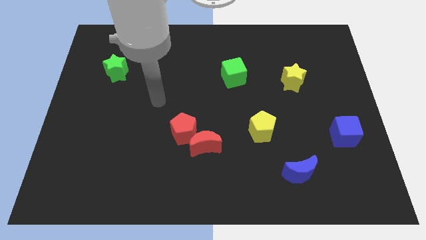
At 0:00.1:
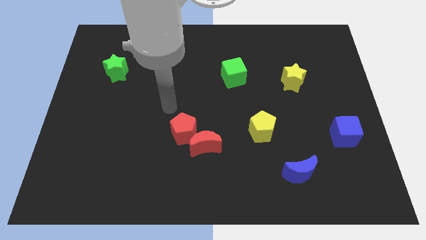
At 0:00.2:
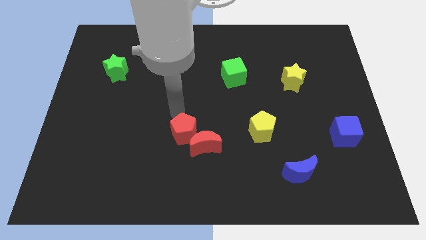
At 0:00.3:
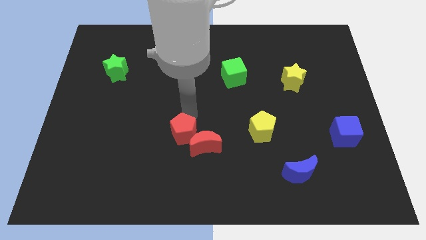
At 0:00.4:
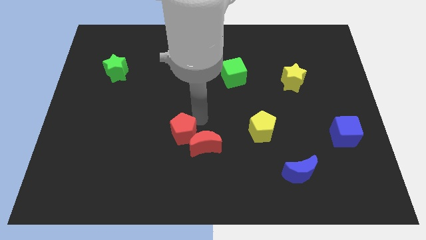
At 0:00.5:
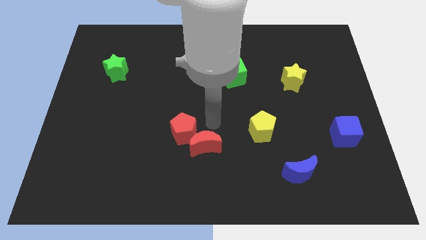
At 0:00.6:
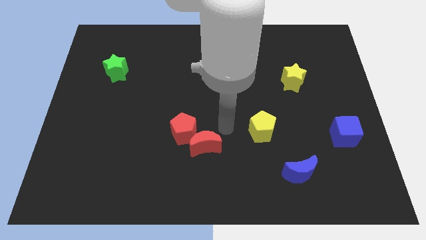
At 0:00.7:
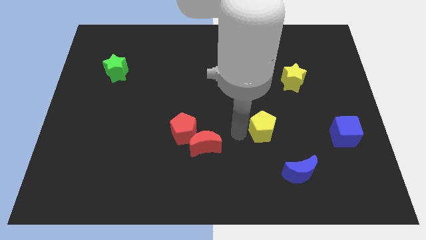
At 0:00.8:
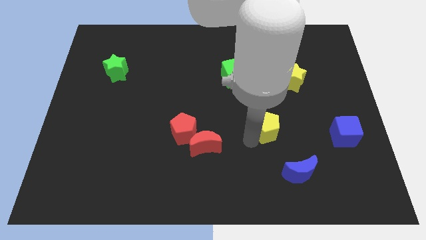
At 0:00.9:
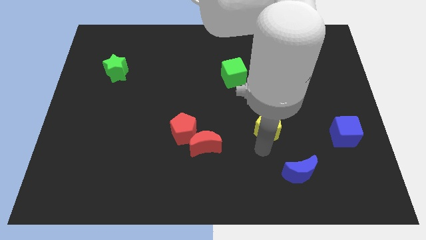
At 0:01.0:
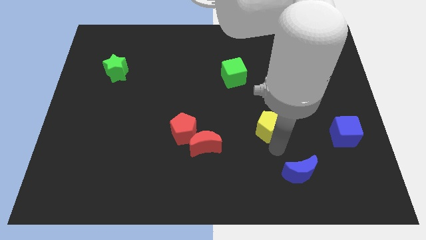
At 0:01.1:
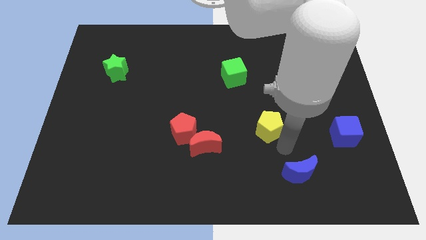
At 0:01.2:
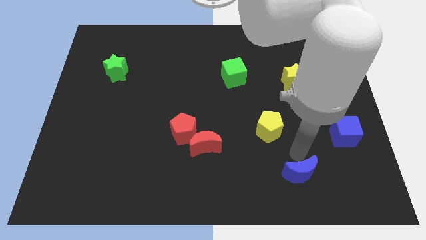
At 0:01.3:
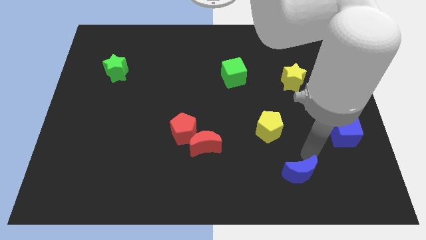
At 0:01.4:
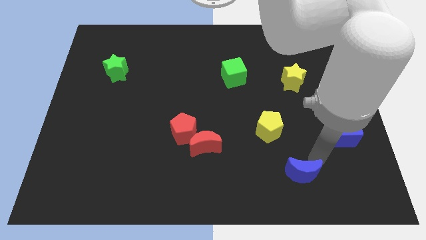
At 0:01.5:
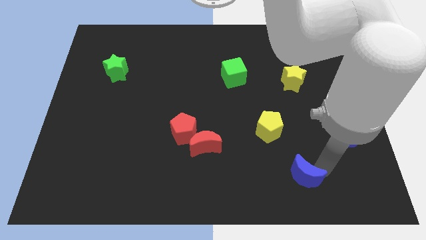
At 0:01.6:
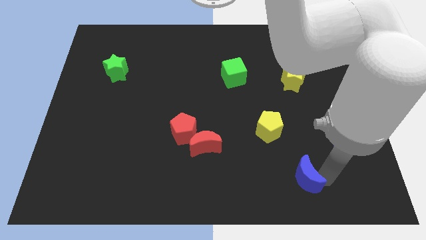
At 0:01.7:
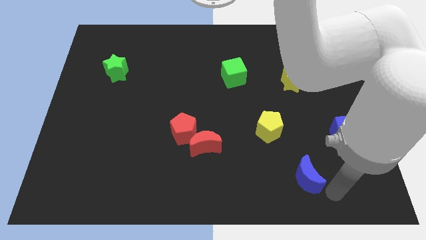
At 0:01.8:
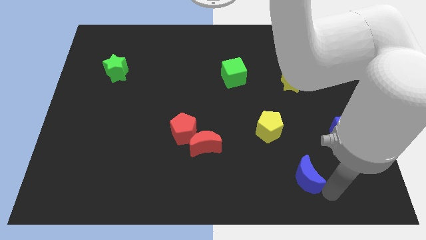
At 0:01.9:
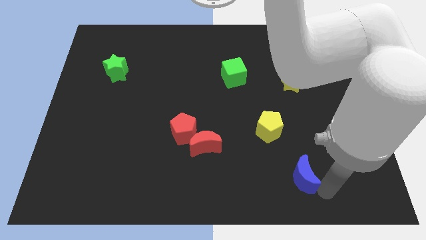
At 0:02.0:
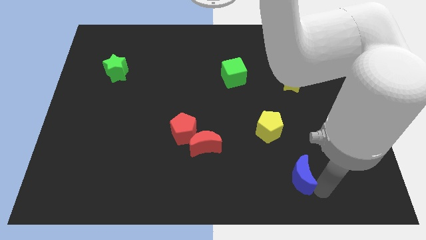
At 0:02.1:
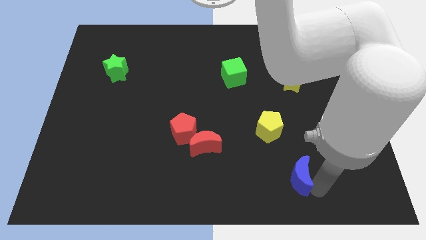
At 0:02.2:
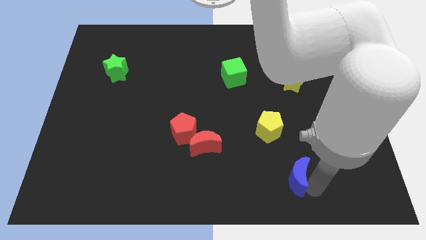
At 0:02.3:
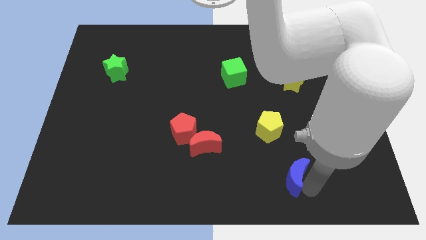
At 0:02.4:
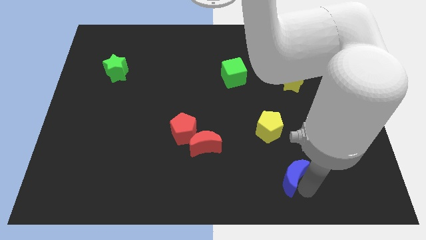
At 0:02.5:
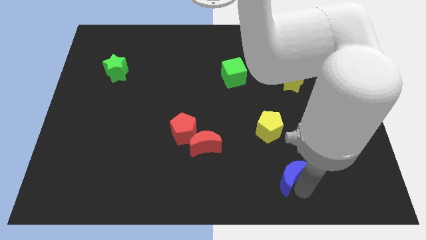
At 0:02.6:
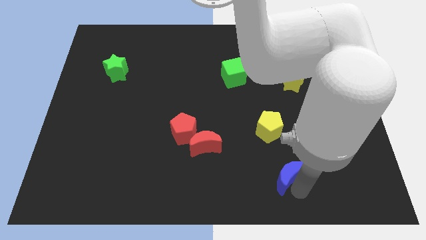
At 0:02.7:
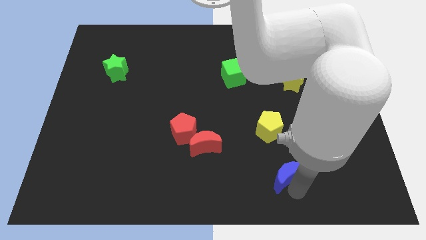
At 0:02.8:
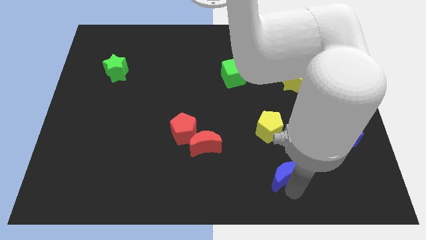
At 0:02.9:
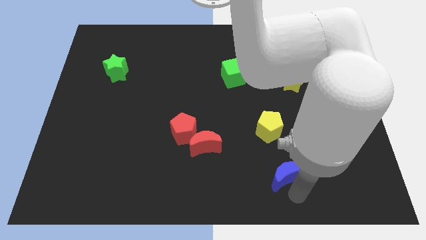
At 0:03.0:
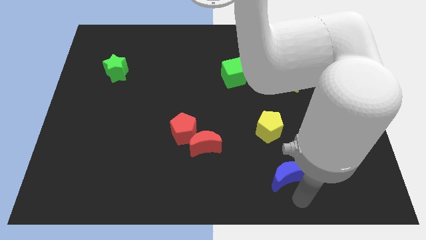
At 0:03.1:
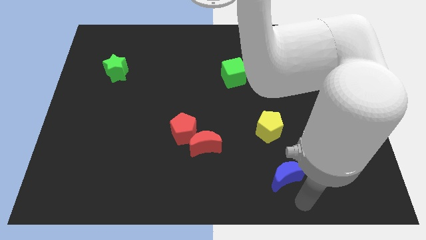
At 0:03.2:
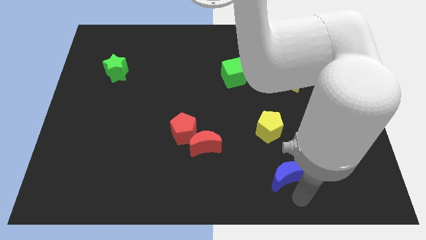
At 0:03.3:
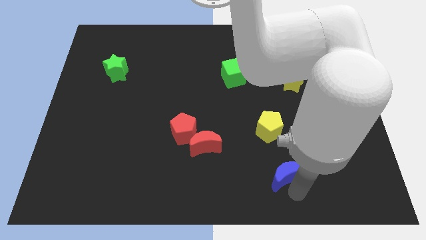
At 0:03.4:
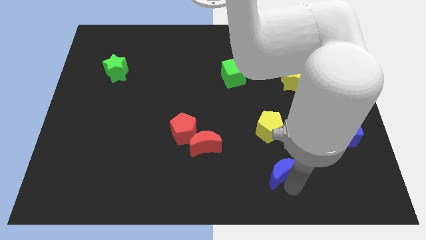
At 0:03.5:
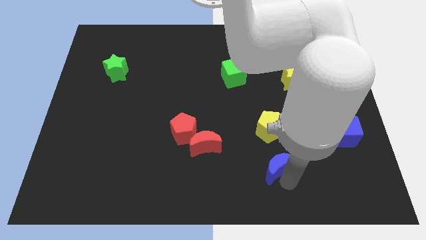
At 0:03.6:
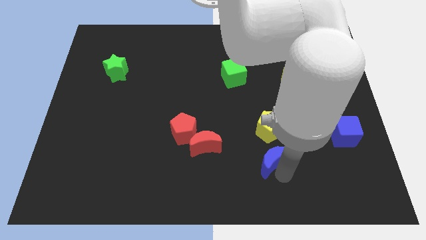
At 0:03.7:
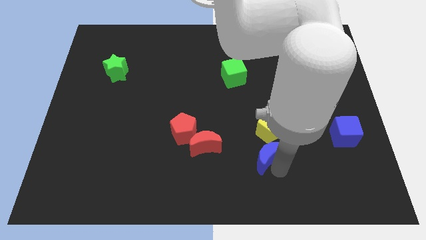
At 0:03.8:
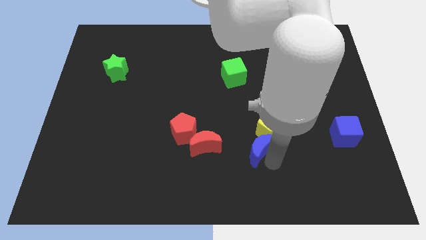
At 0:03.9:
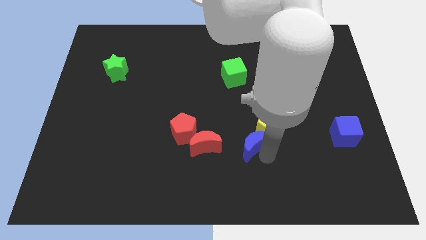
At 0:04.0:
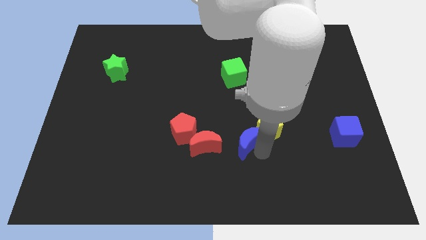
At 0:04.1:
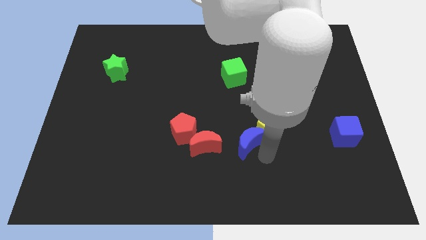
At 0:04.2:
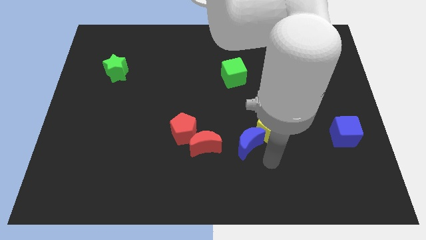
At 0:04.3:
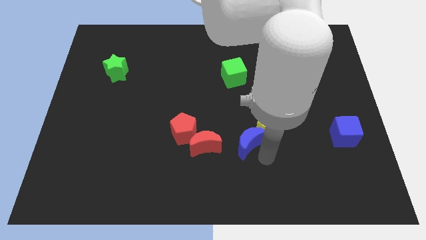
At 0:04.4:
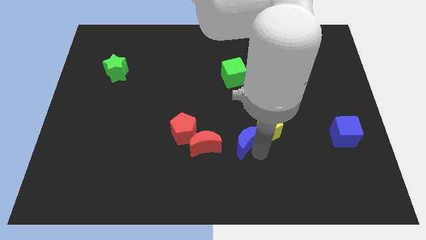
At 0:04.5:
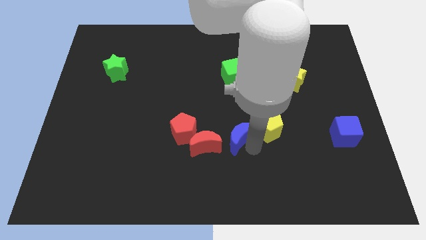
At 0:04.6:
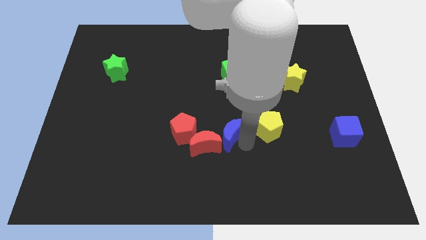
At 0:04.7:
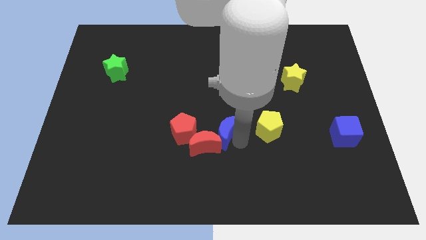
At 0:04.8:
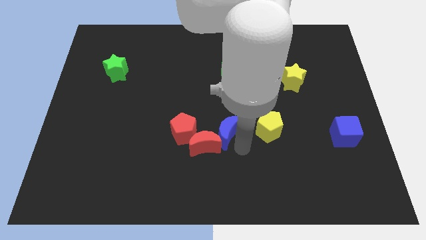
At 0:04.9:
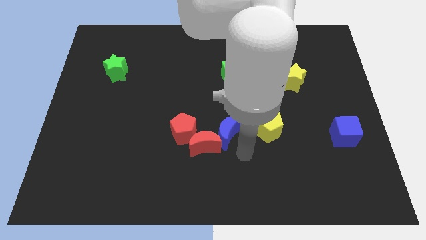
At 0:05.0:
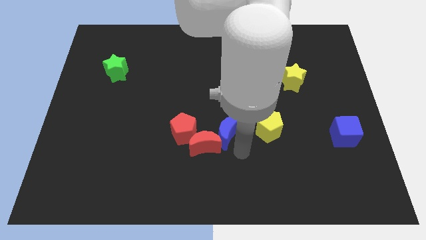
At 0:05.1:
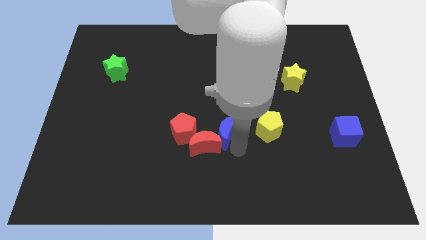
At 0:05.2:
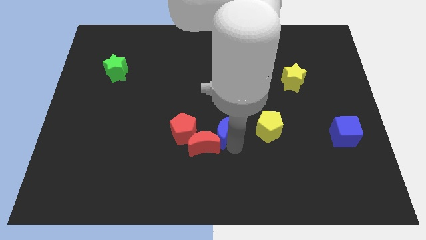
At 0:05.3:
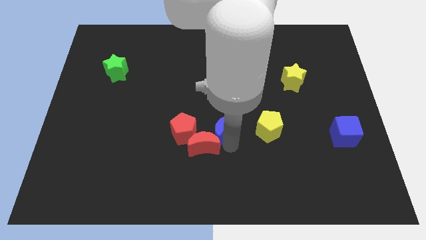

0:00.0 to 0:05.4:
move the blue moon to the top side of the red moon

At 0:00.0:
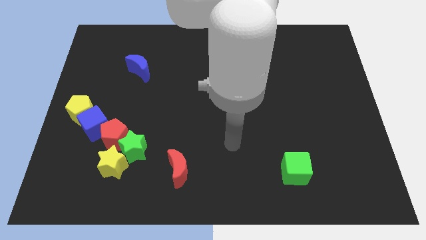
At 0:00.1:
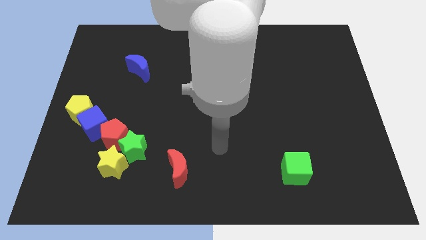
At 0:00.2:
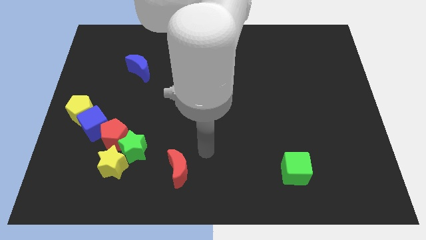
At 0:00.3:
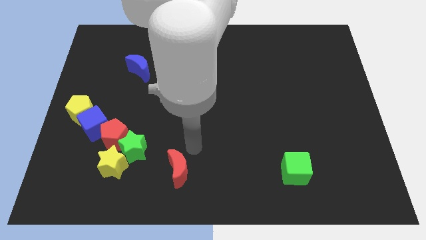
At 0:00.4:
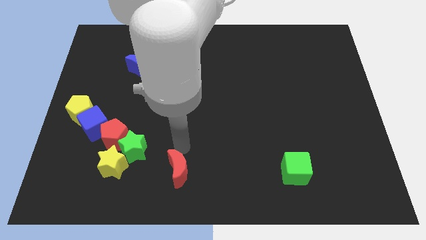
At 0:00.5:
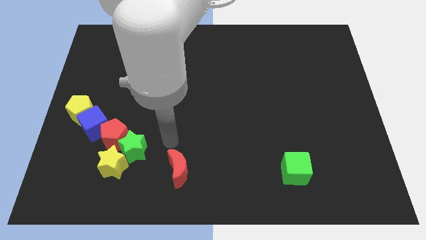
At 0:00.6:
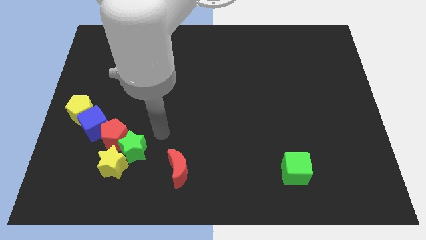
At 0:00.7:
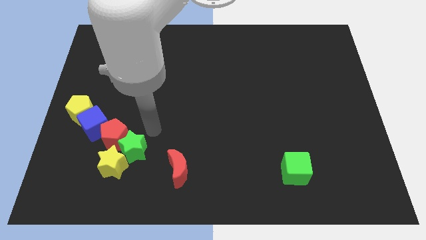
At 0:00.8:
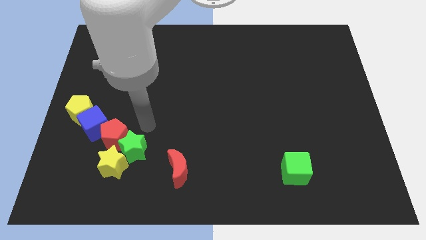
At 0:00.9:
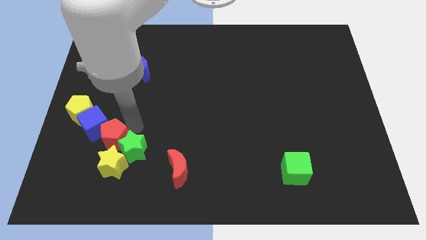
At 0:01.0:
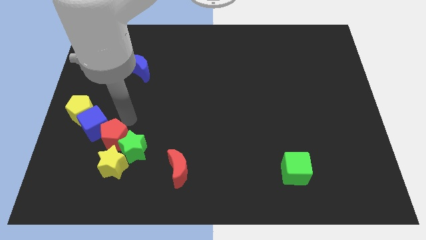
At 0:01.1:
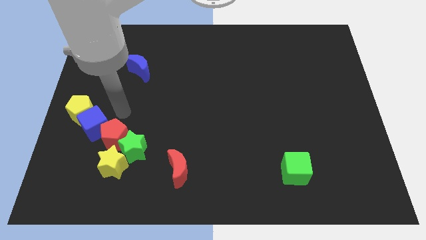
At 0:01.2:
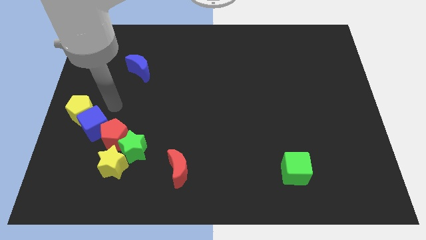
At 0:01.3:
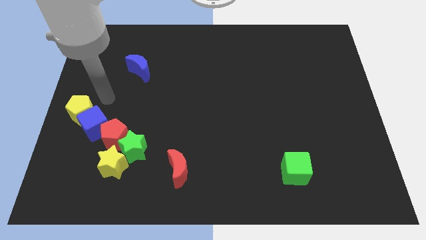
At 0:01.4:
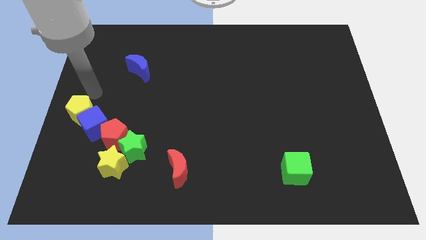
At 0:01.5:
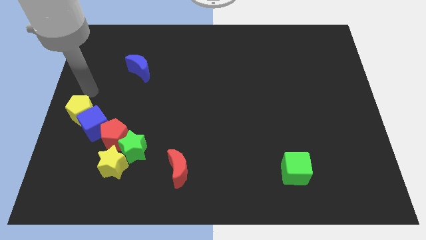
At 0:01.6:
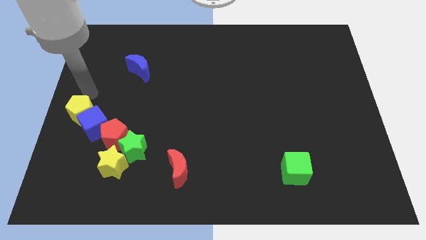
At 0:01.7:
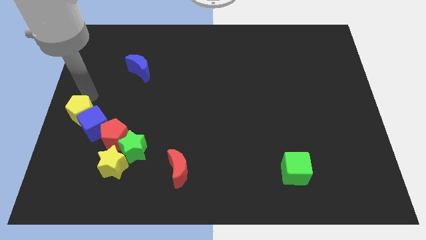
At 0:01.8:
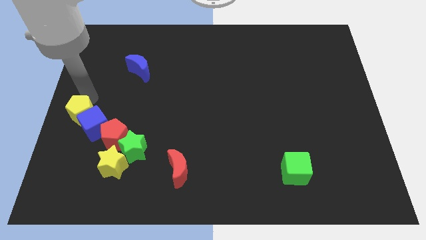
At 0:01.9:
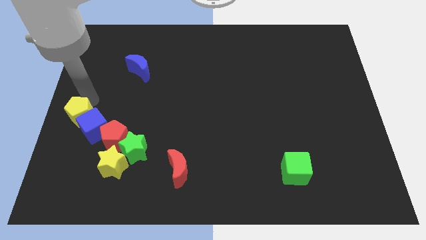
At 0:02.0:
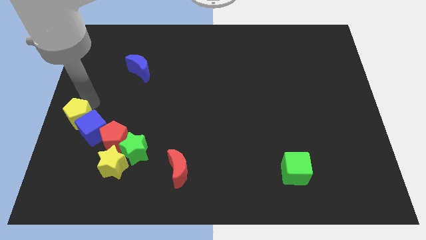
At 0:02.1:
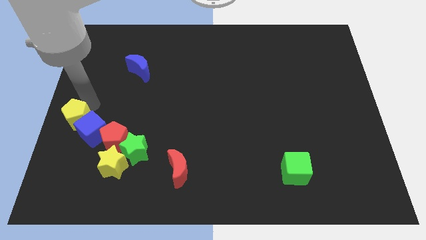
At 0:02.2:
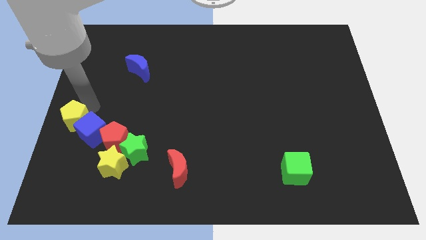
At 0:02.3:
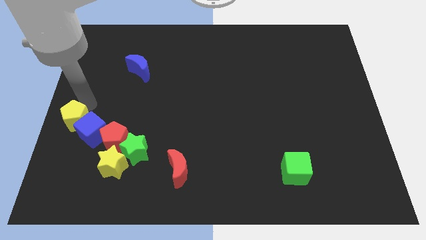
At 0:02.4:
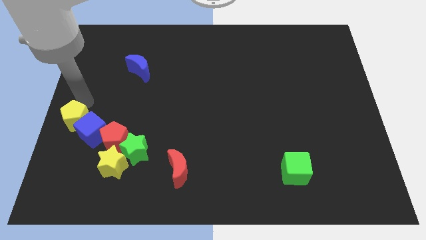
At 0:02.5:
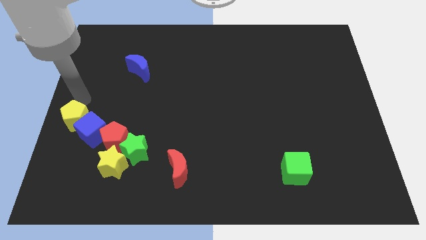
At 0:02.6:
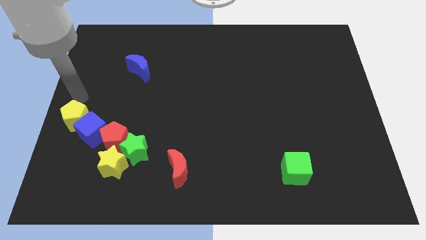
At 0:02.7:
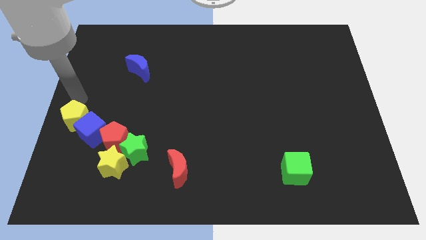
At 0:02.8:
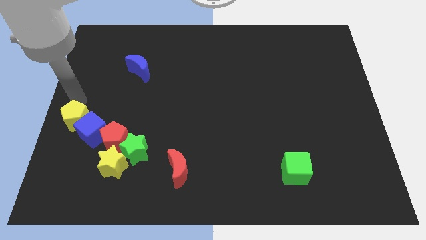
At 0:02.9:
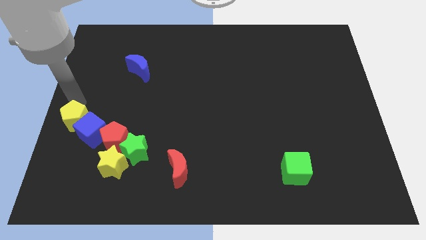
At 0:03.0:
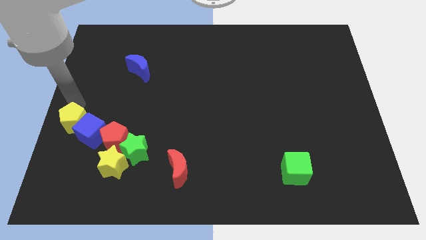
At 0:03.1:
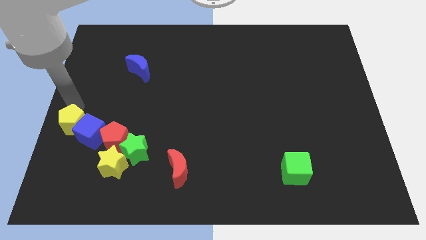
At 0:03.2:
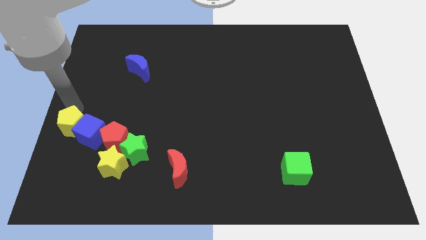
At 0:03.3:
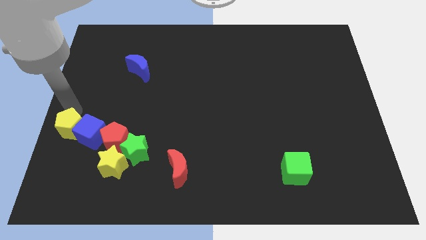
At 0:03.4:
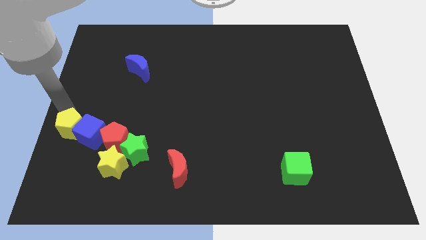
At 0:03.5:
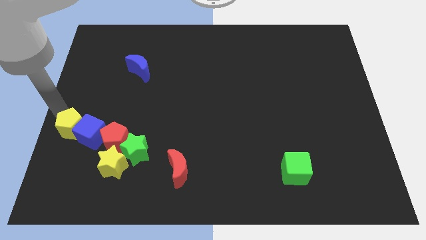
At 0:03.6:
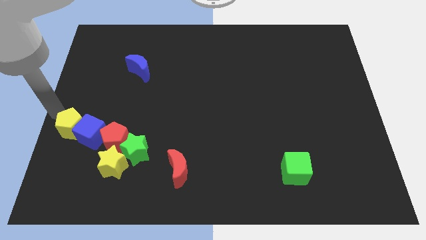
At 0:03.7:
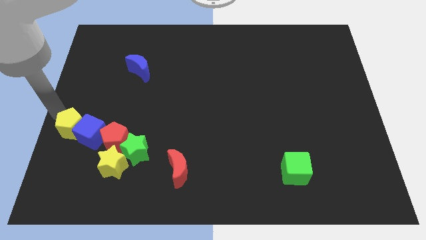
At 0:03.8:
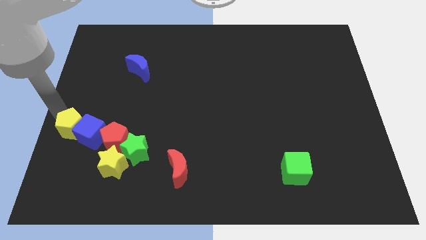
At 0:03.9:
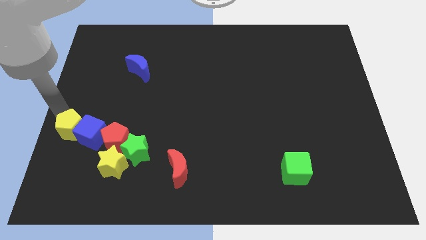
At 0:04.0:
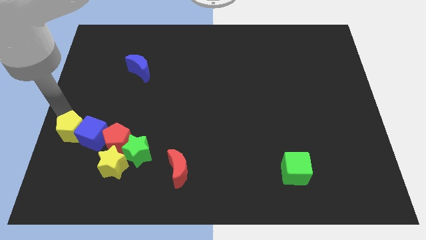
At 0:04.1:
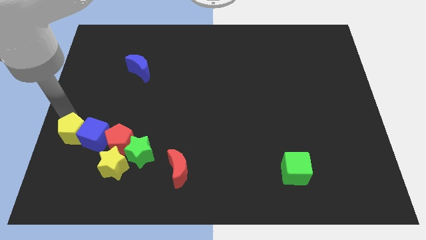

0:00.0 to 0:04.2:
put the yellow pentagon to the top left of the yellow star
